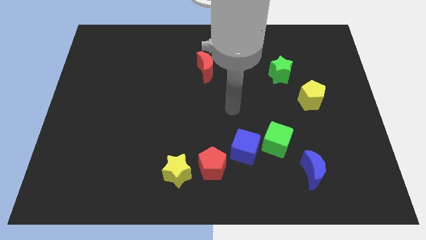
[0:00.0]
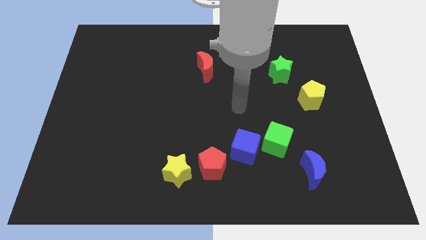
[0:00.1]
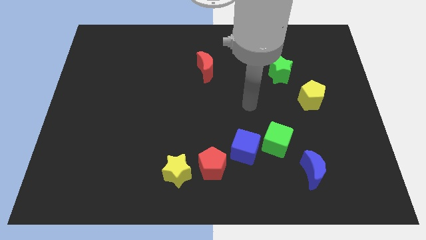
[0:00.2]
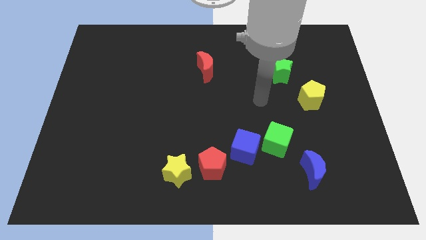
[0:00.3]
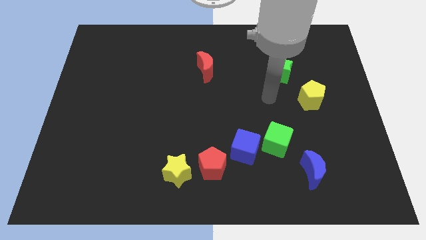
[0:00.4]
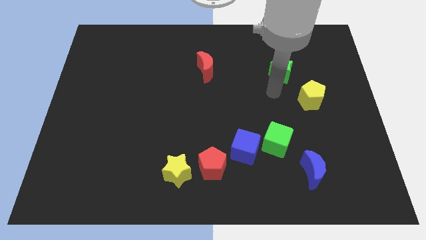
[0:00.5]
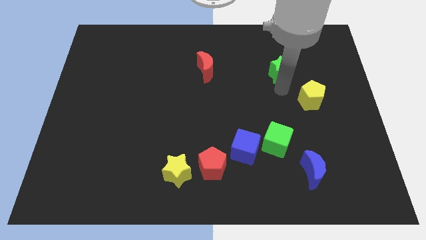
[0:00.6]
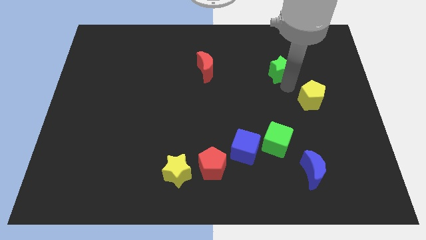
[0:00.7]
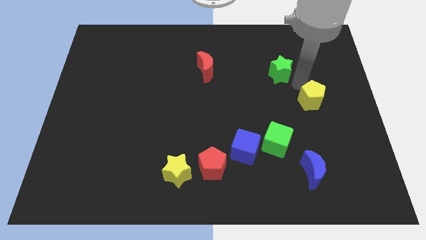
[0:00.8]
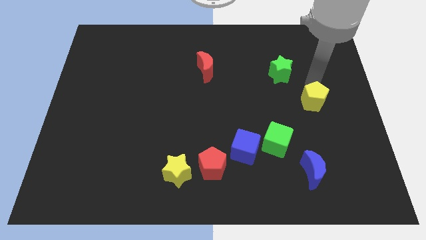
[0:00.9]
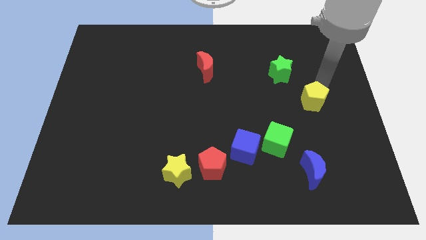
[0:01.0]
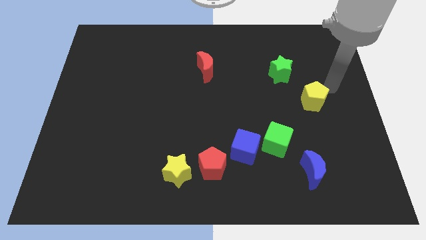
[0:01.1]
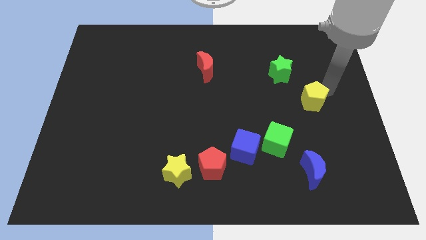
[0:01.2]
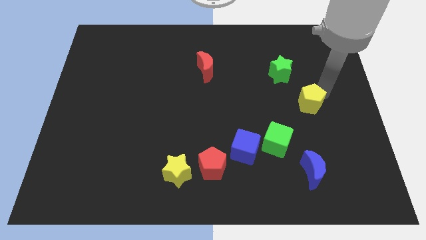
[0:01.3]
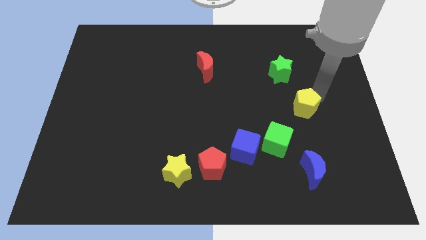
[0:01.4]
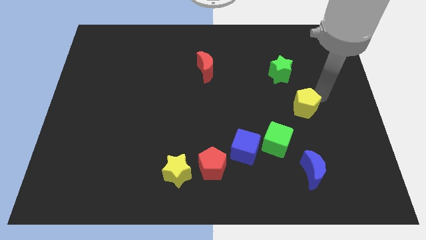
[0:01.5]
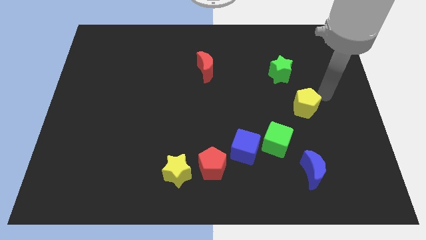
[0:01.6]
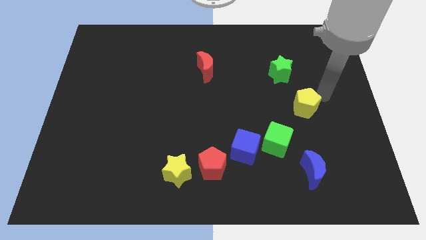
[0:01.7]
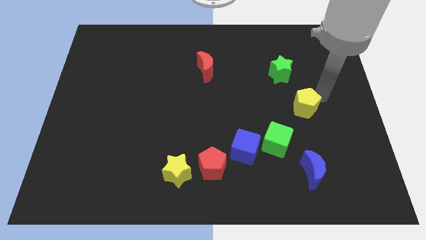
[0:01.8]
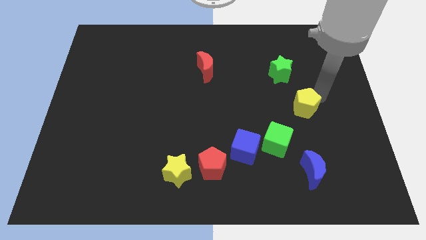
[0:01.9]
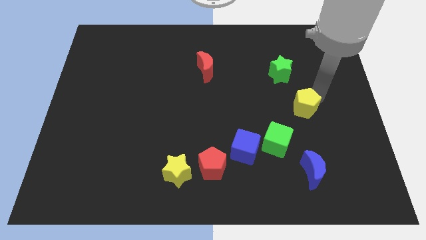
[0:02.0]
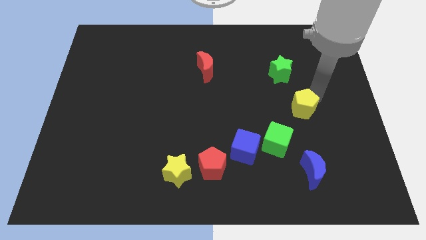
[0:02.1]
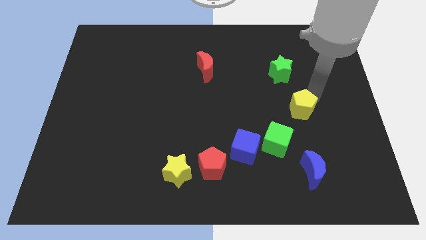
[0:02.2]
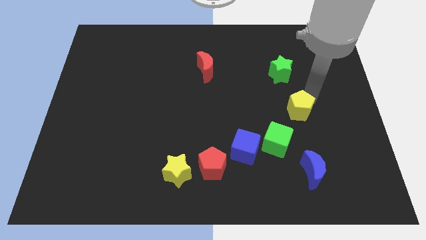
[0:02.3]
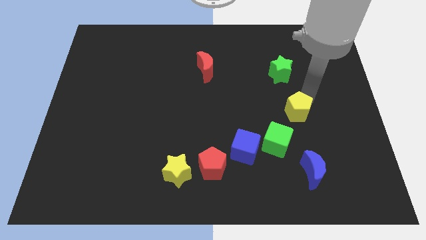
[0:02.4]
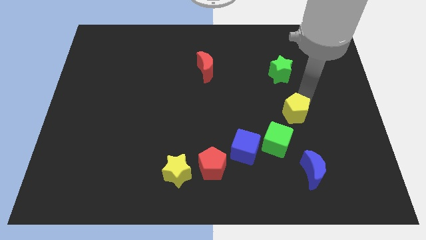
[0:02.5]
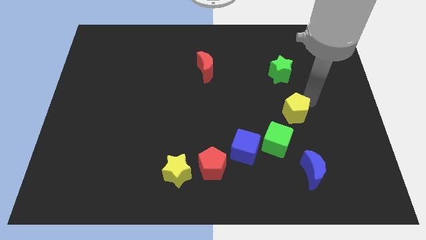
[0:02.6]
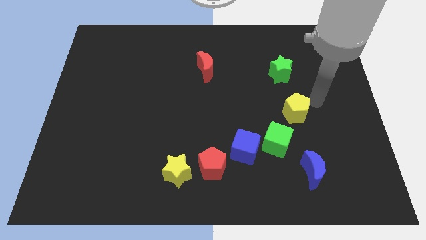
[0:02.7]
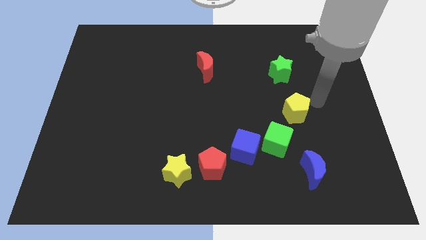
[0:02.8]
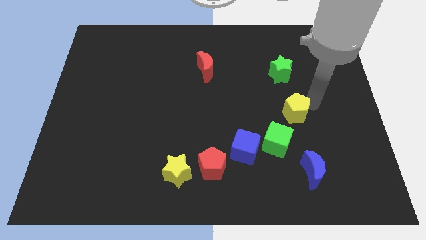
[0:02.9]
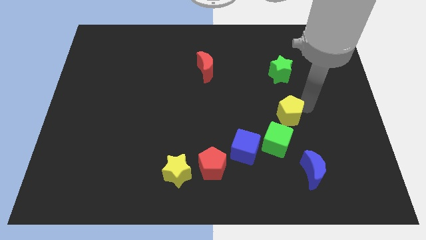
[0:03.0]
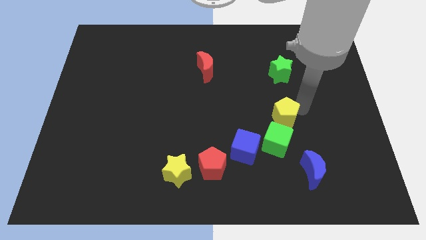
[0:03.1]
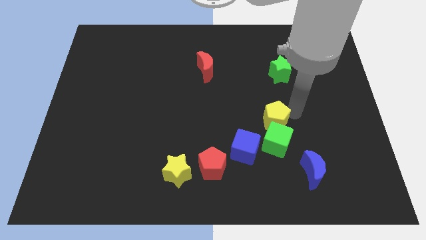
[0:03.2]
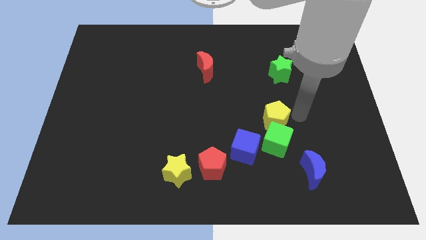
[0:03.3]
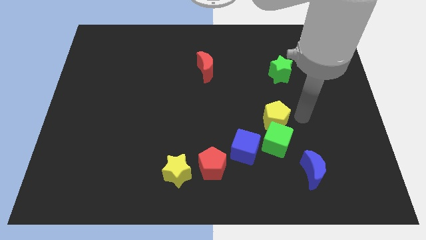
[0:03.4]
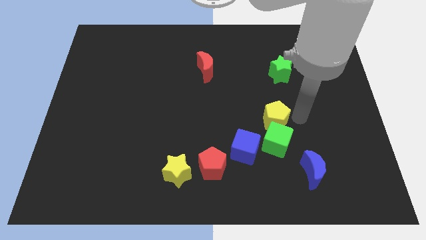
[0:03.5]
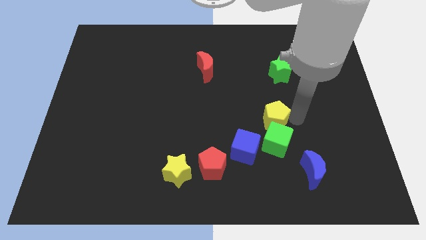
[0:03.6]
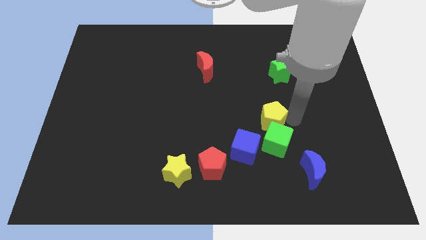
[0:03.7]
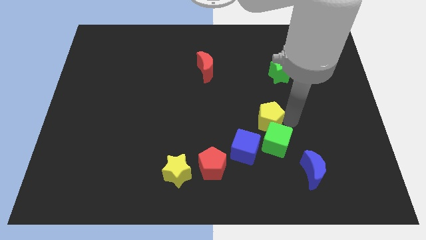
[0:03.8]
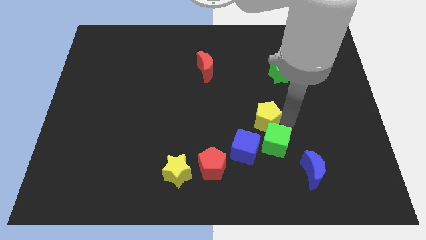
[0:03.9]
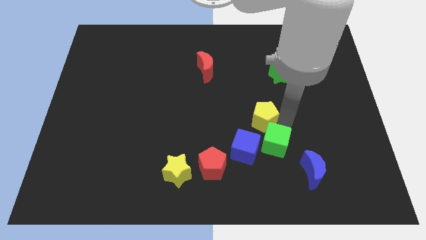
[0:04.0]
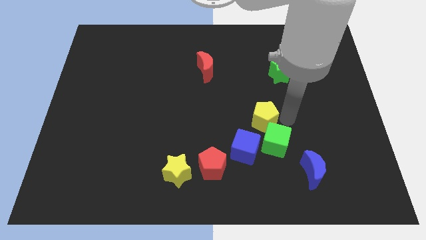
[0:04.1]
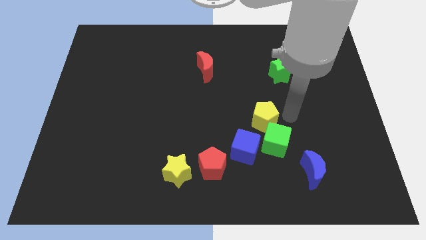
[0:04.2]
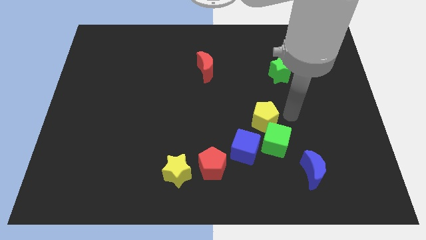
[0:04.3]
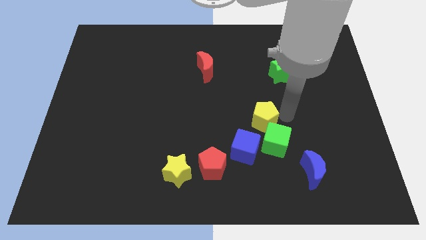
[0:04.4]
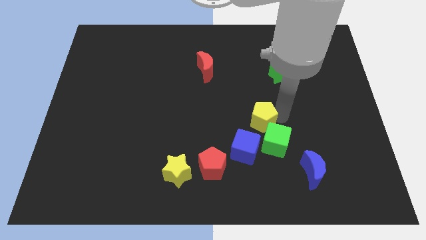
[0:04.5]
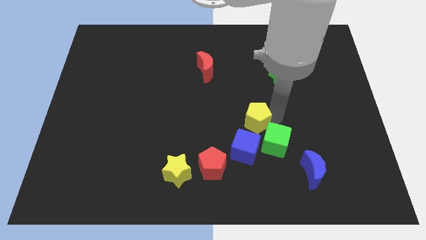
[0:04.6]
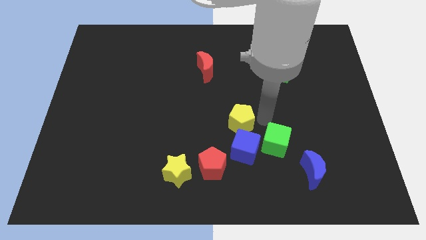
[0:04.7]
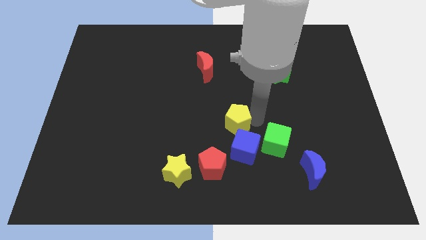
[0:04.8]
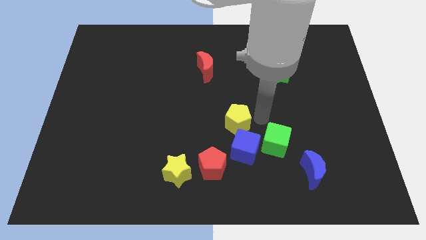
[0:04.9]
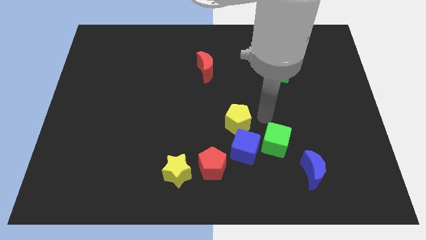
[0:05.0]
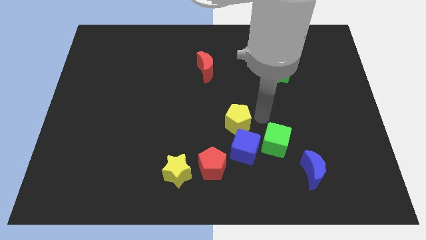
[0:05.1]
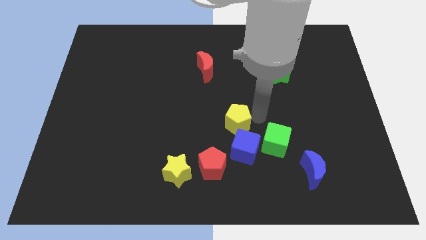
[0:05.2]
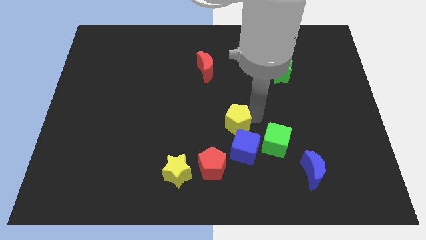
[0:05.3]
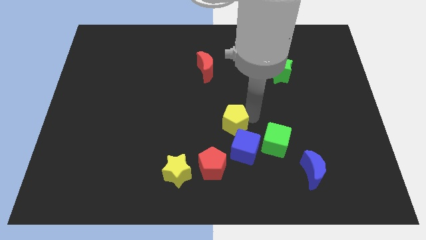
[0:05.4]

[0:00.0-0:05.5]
move the yellow pentagon above the red pentagon
